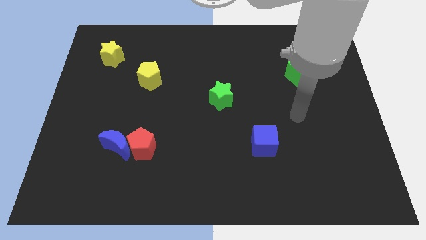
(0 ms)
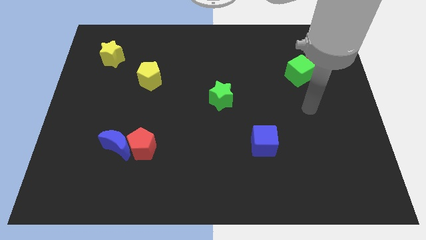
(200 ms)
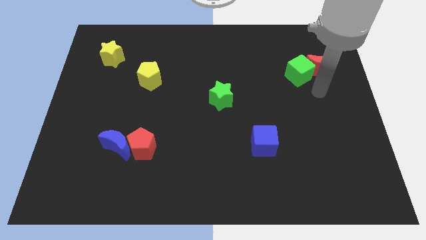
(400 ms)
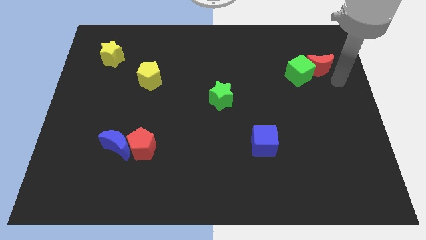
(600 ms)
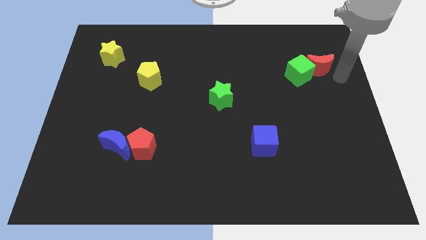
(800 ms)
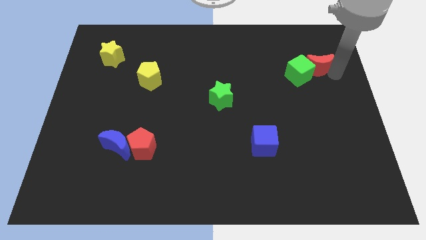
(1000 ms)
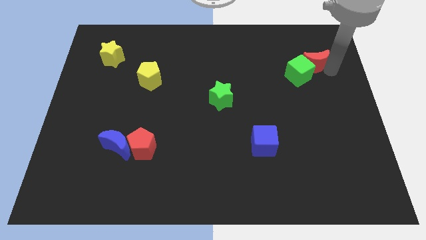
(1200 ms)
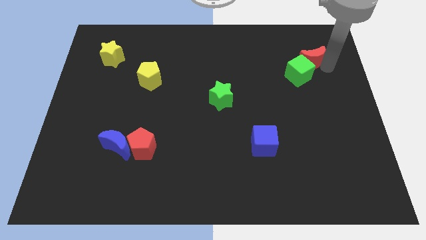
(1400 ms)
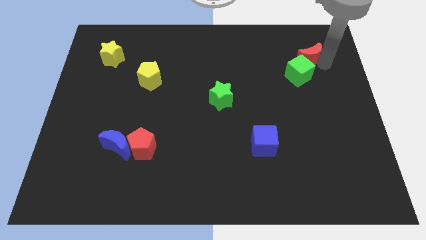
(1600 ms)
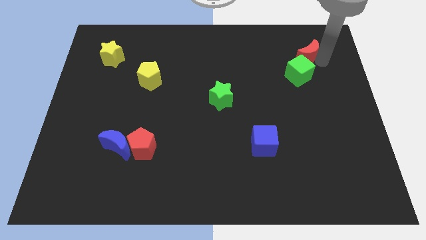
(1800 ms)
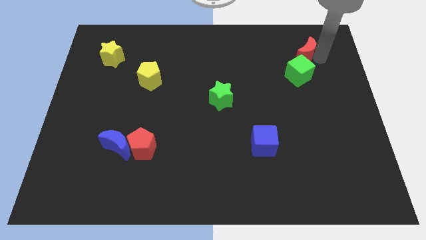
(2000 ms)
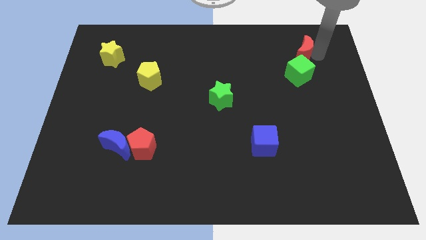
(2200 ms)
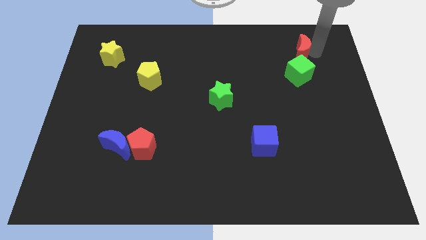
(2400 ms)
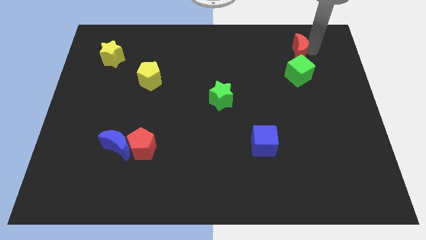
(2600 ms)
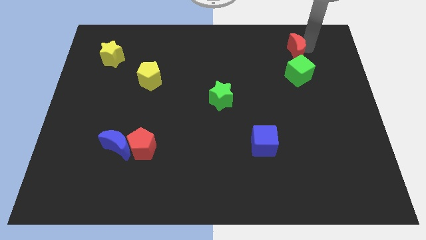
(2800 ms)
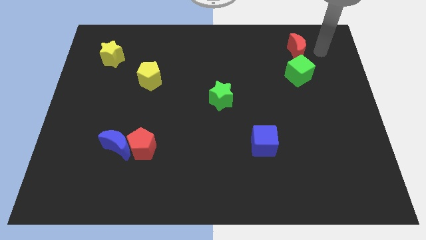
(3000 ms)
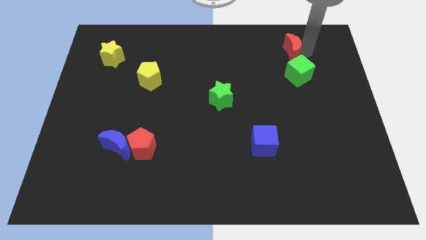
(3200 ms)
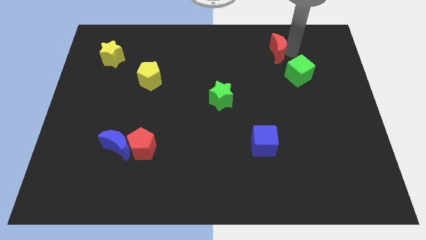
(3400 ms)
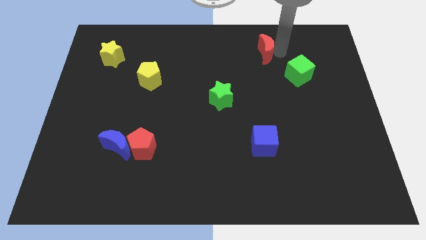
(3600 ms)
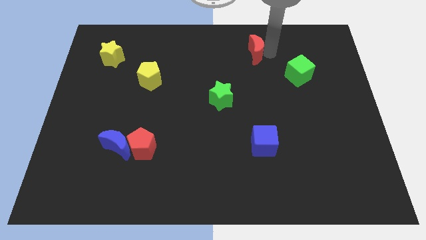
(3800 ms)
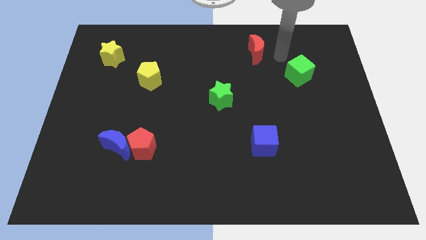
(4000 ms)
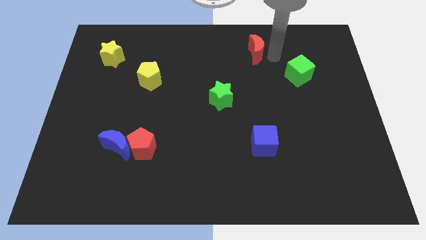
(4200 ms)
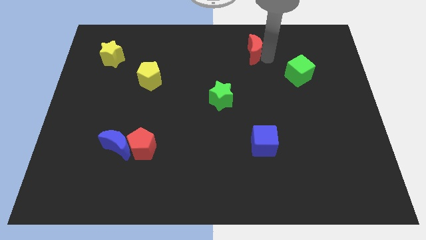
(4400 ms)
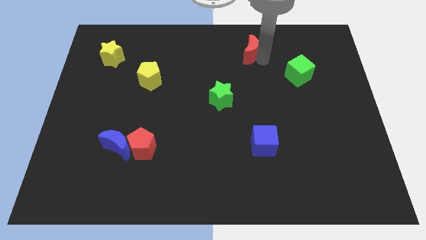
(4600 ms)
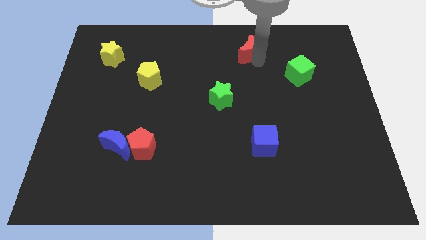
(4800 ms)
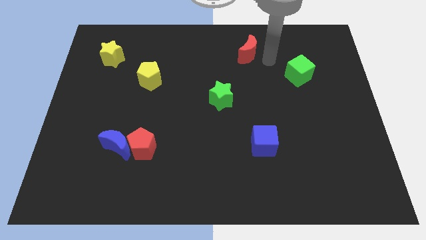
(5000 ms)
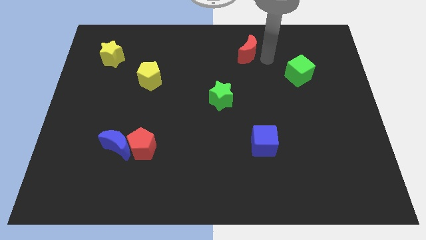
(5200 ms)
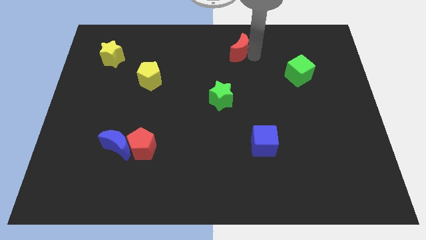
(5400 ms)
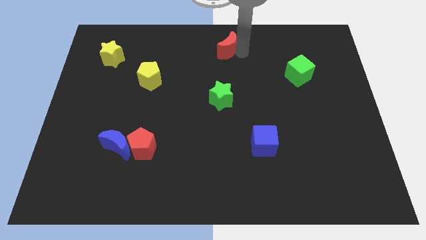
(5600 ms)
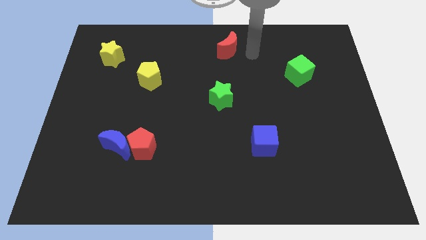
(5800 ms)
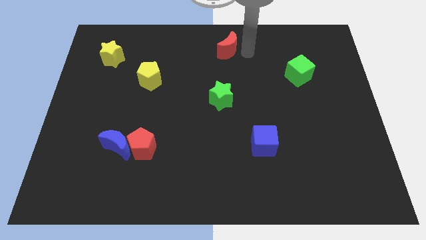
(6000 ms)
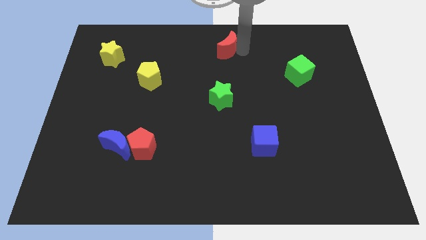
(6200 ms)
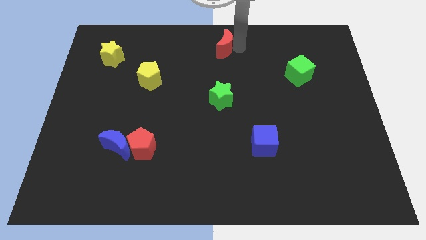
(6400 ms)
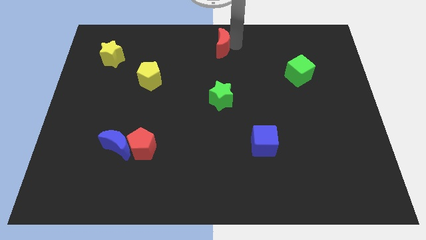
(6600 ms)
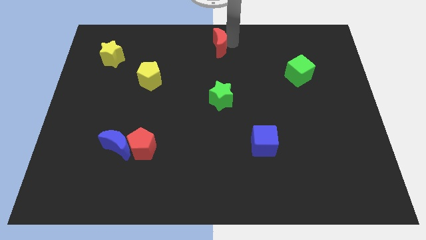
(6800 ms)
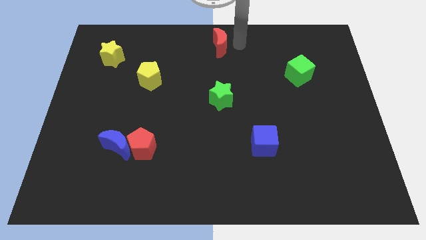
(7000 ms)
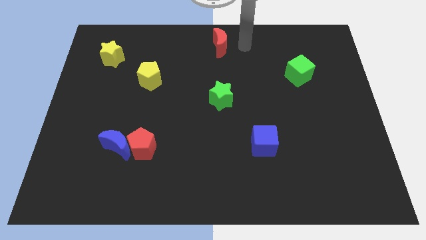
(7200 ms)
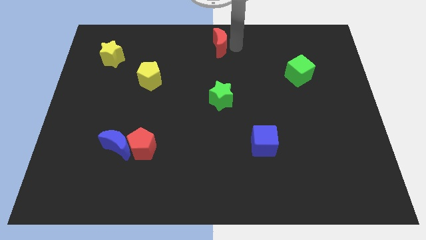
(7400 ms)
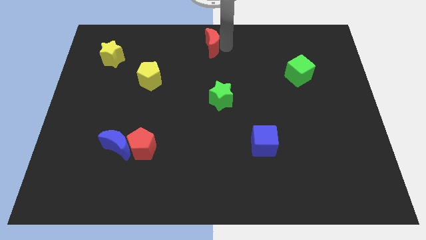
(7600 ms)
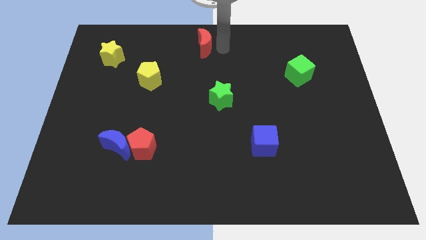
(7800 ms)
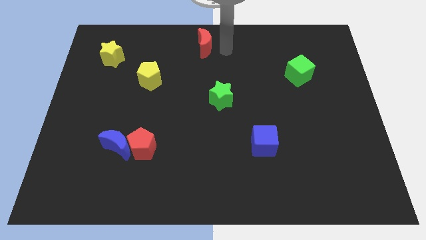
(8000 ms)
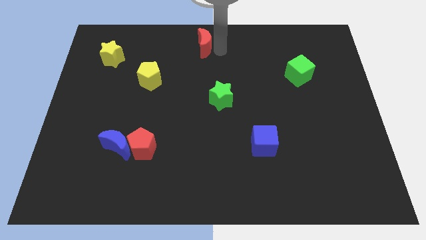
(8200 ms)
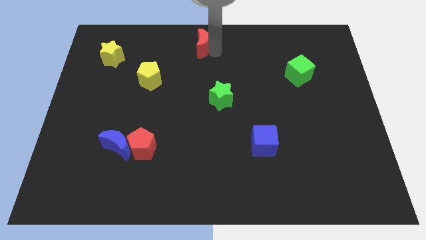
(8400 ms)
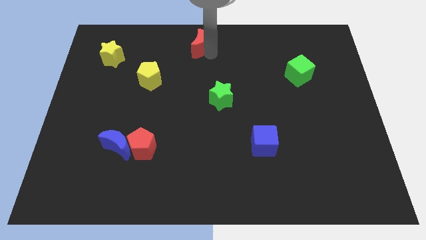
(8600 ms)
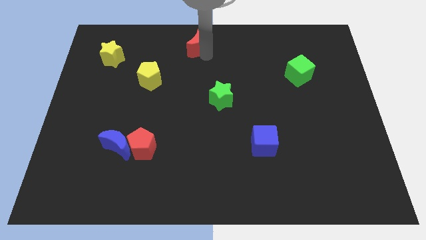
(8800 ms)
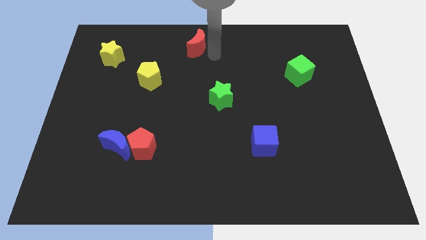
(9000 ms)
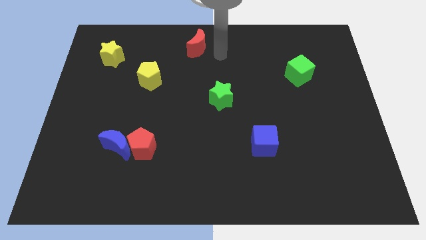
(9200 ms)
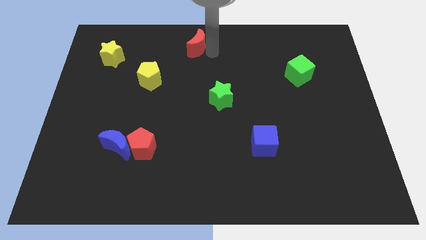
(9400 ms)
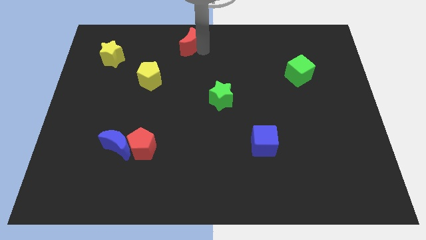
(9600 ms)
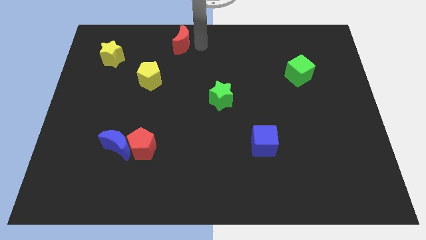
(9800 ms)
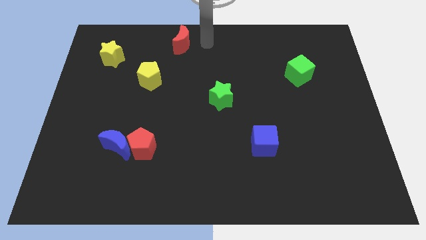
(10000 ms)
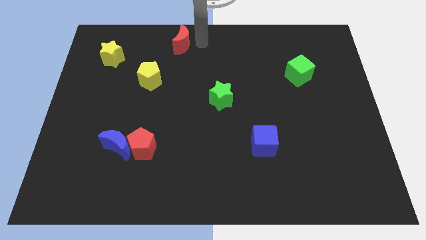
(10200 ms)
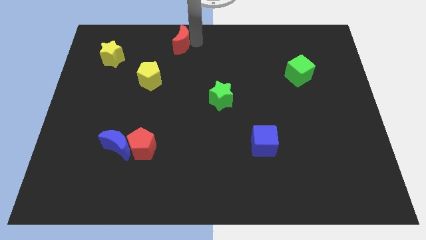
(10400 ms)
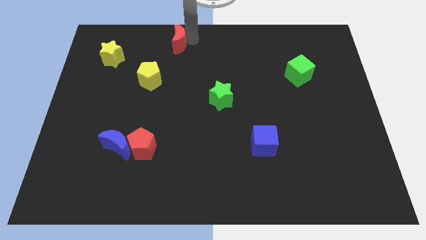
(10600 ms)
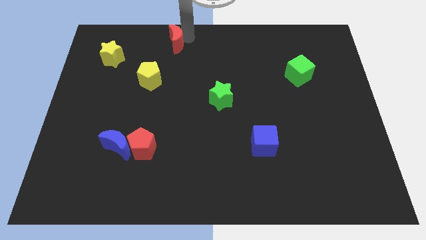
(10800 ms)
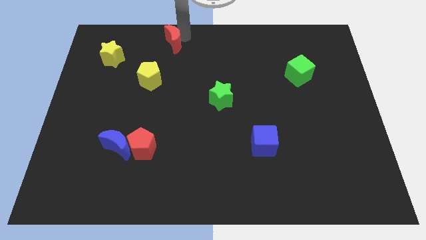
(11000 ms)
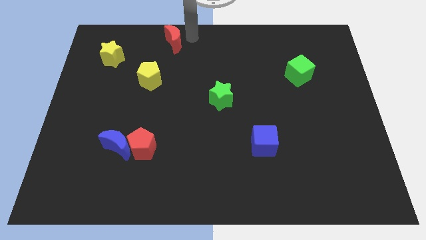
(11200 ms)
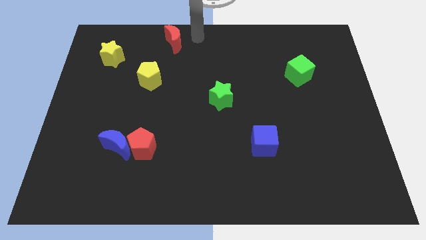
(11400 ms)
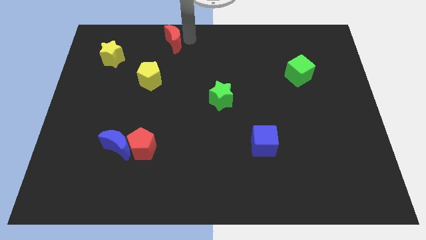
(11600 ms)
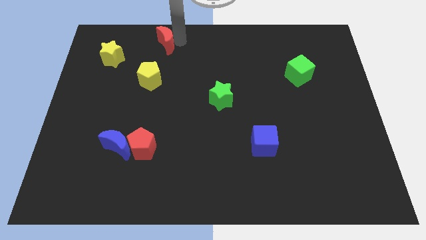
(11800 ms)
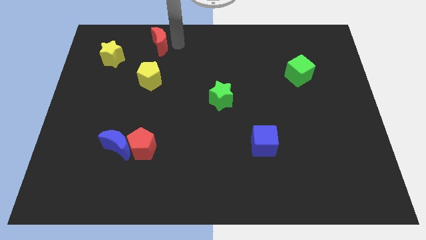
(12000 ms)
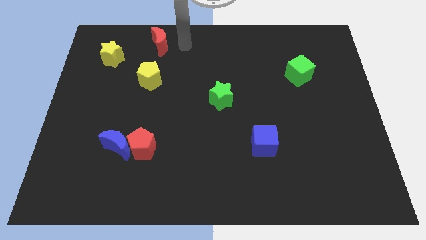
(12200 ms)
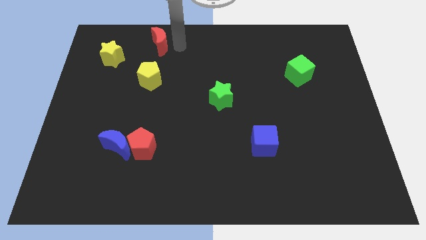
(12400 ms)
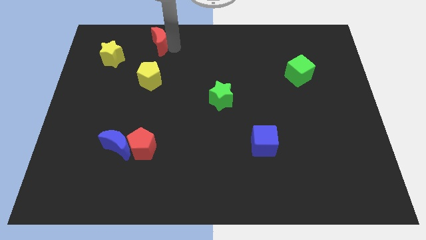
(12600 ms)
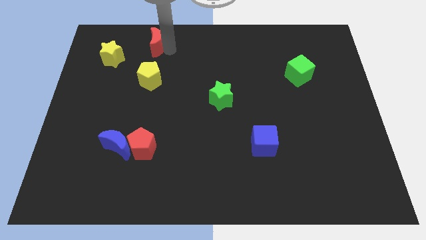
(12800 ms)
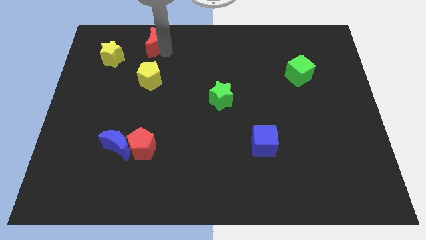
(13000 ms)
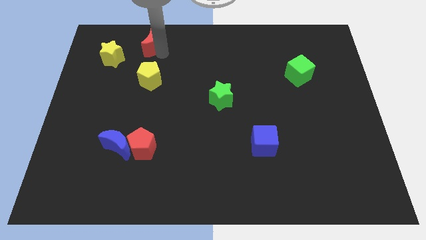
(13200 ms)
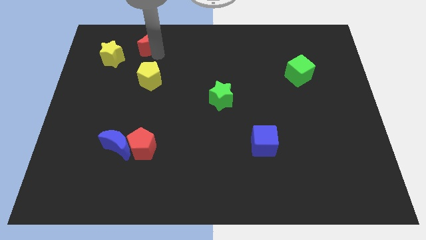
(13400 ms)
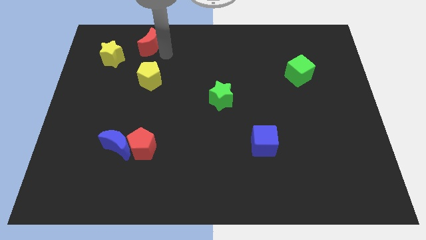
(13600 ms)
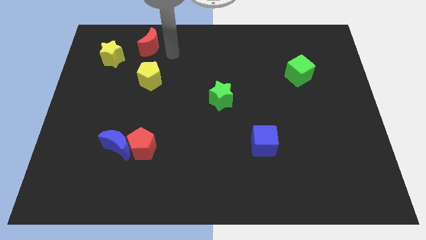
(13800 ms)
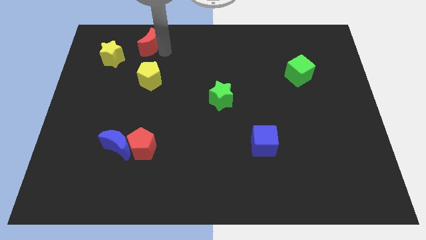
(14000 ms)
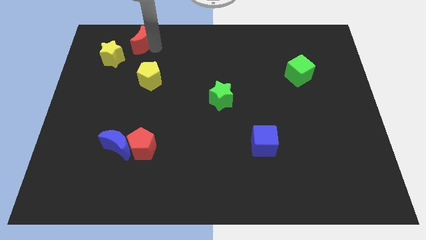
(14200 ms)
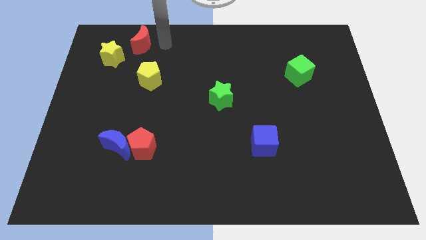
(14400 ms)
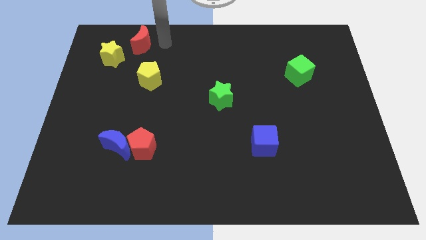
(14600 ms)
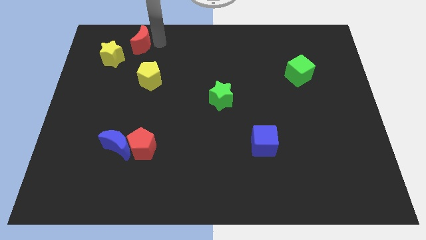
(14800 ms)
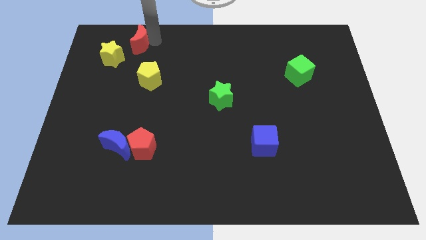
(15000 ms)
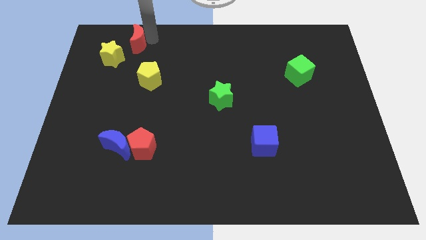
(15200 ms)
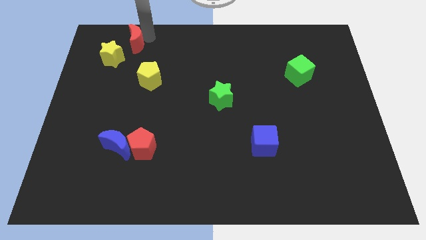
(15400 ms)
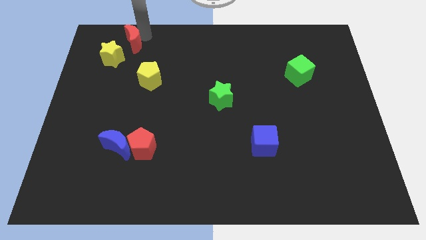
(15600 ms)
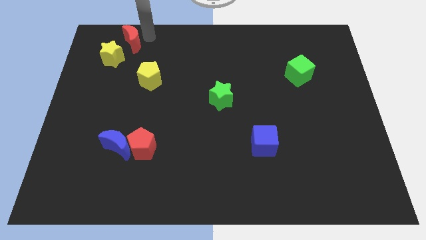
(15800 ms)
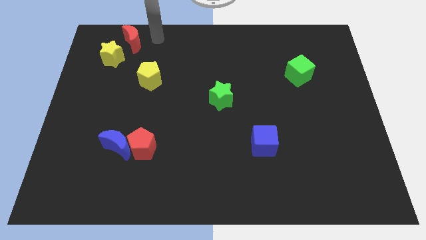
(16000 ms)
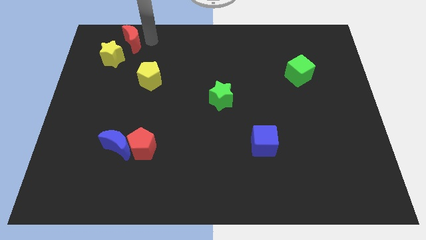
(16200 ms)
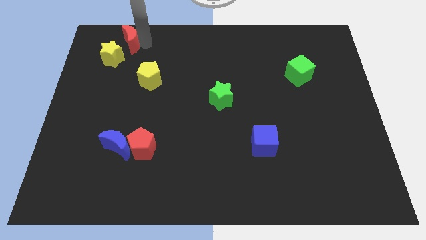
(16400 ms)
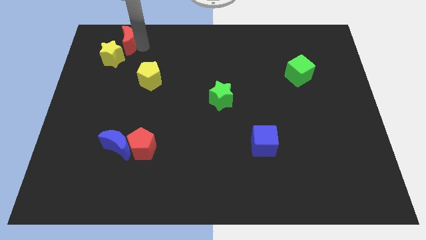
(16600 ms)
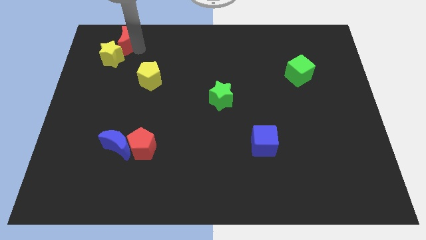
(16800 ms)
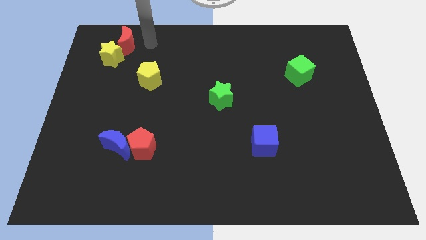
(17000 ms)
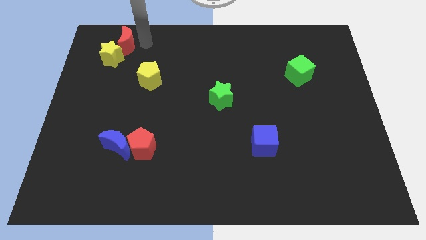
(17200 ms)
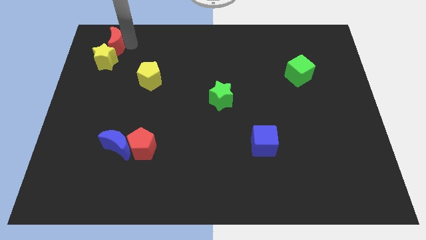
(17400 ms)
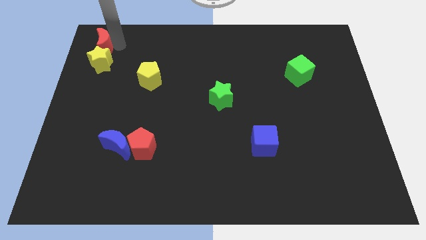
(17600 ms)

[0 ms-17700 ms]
move the red moon to the top left
